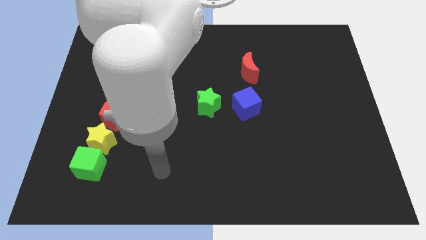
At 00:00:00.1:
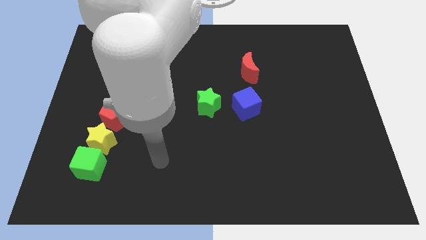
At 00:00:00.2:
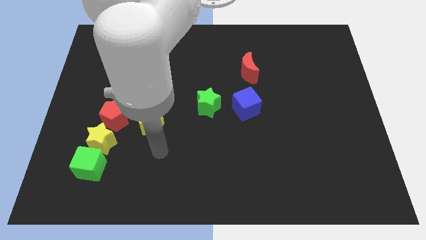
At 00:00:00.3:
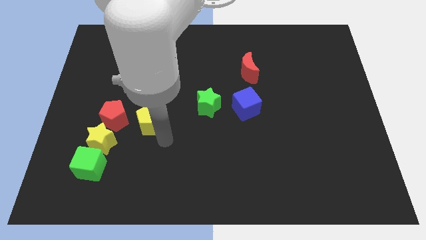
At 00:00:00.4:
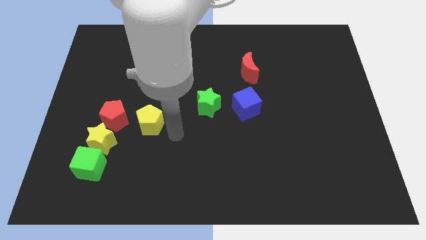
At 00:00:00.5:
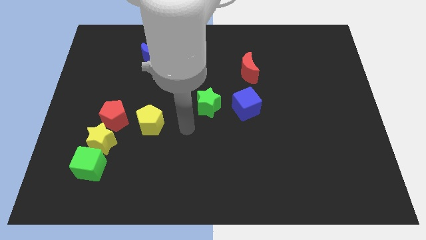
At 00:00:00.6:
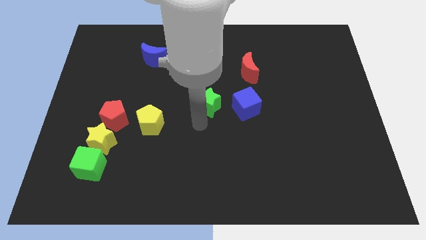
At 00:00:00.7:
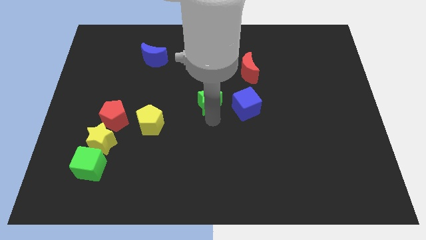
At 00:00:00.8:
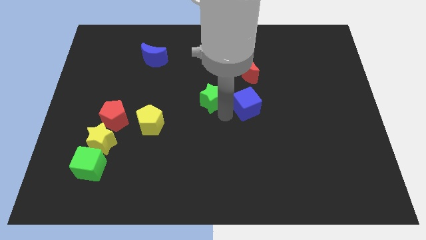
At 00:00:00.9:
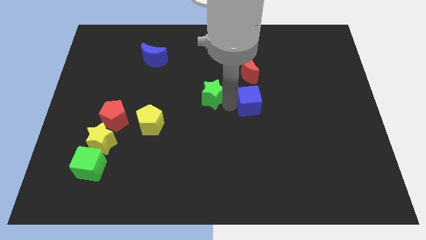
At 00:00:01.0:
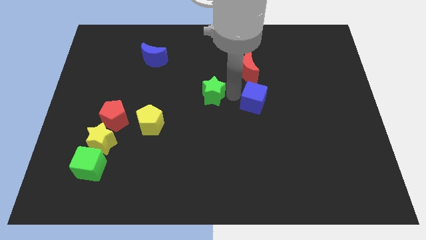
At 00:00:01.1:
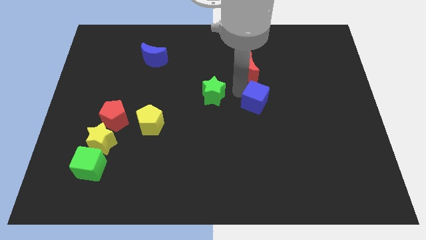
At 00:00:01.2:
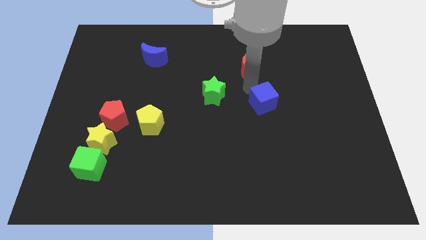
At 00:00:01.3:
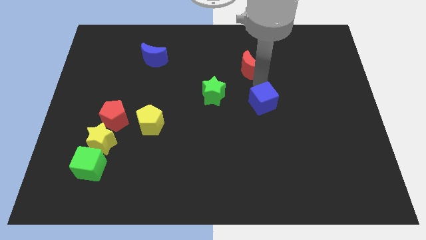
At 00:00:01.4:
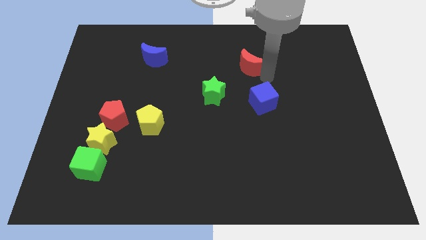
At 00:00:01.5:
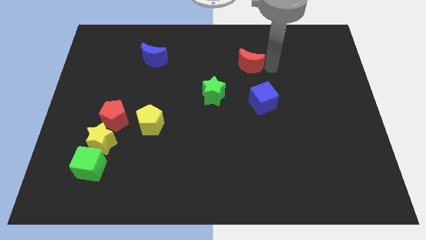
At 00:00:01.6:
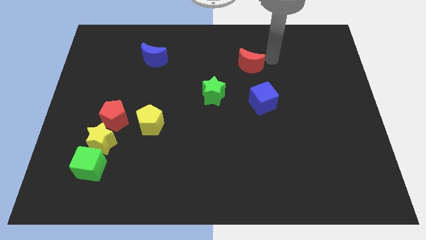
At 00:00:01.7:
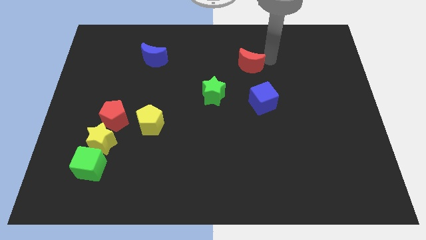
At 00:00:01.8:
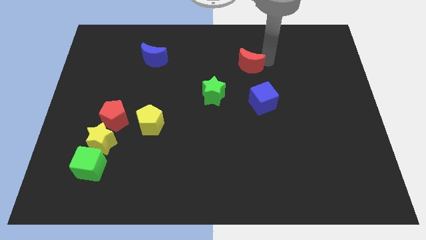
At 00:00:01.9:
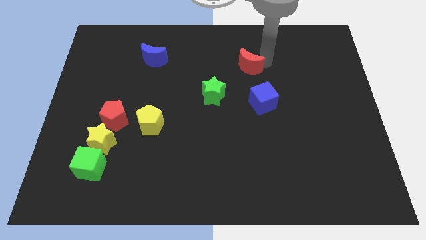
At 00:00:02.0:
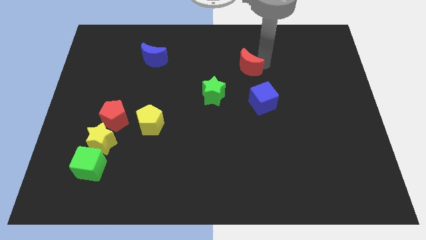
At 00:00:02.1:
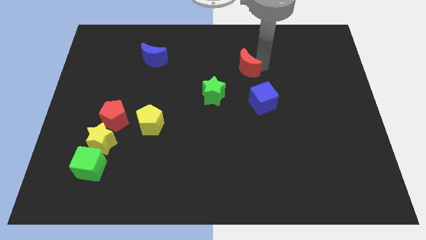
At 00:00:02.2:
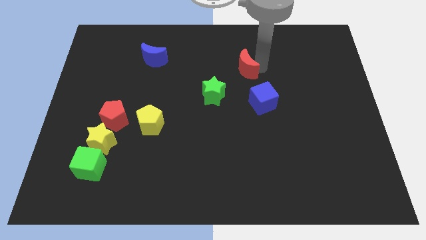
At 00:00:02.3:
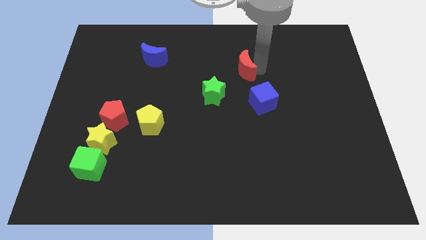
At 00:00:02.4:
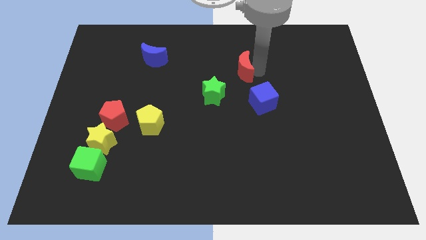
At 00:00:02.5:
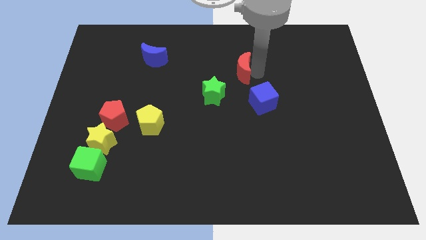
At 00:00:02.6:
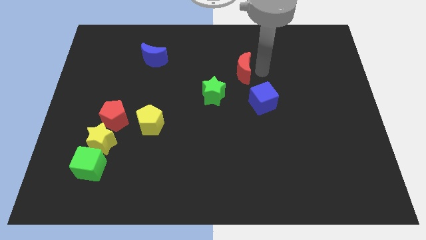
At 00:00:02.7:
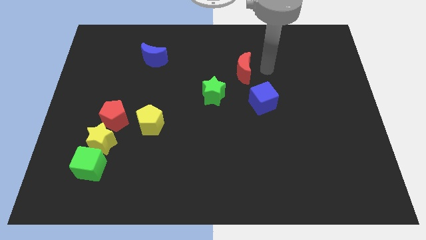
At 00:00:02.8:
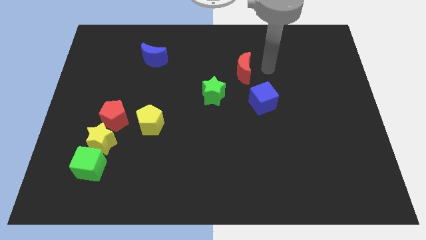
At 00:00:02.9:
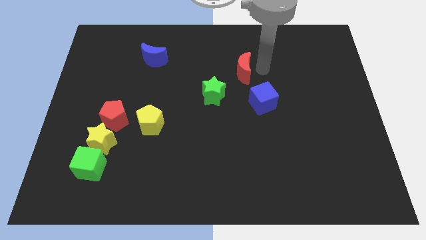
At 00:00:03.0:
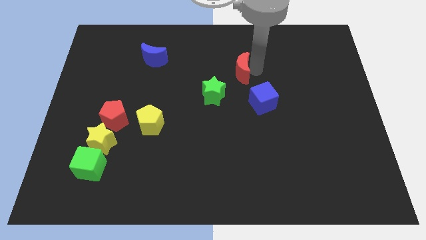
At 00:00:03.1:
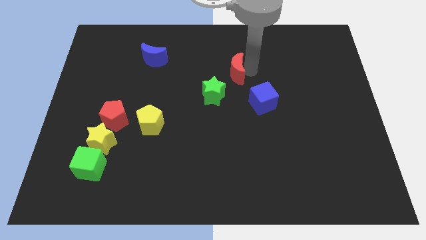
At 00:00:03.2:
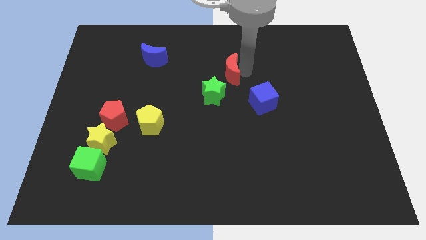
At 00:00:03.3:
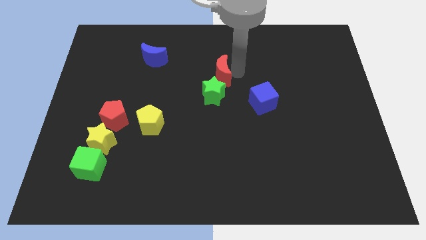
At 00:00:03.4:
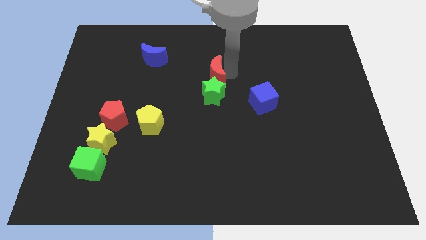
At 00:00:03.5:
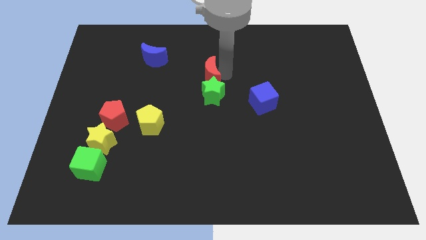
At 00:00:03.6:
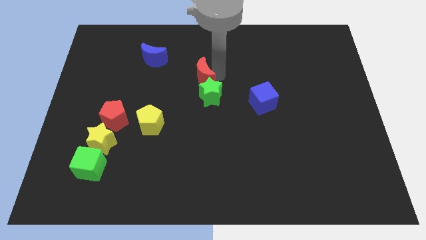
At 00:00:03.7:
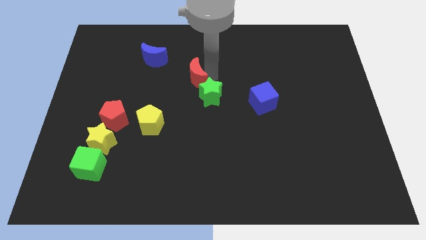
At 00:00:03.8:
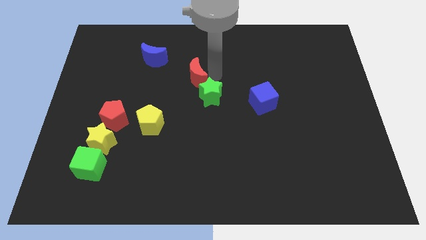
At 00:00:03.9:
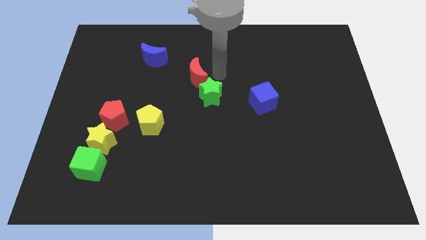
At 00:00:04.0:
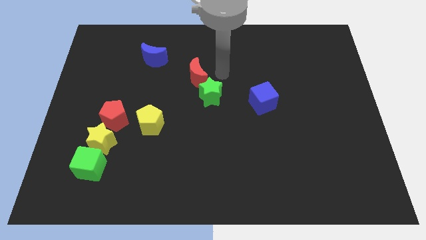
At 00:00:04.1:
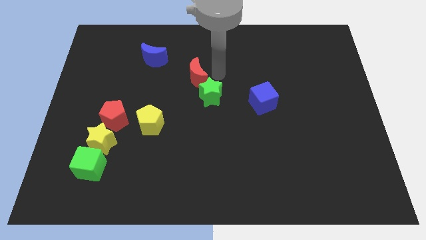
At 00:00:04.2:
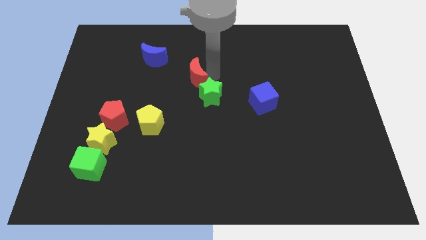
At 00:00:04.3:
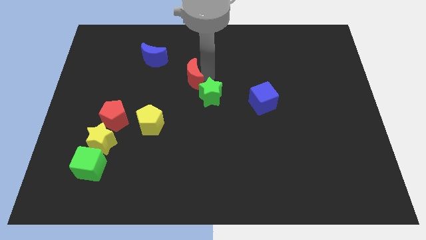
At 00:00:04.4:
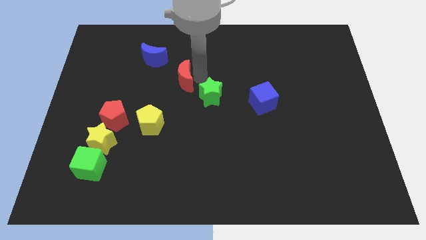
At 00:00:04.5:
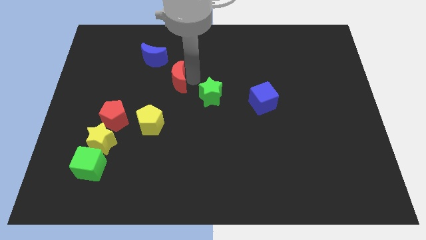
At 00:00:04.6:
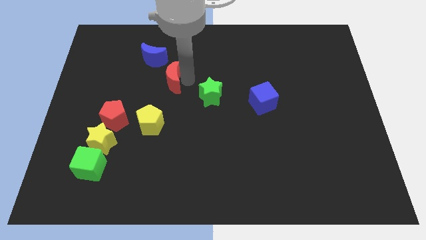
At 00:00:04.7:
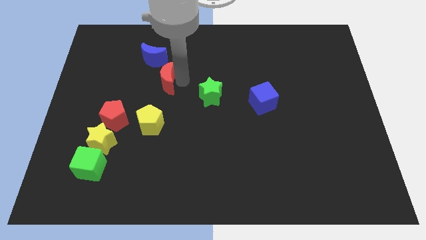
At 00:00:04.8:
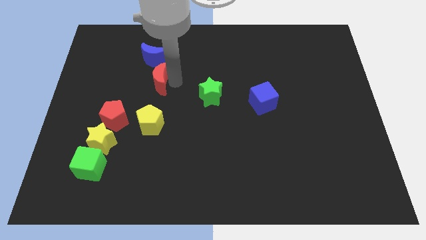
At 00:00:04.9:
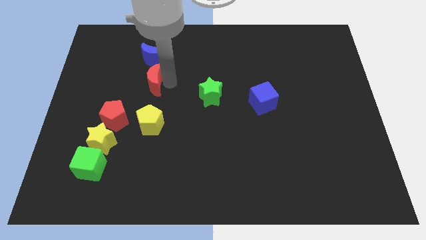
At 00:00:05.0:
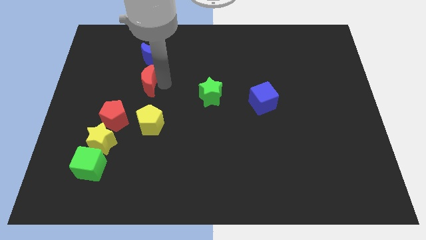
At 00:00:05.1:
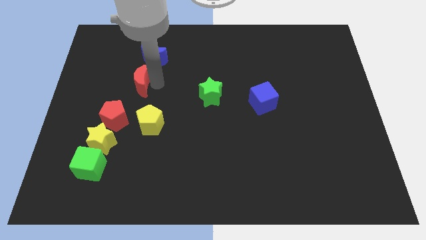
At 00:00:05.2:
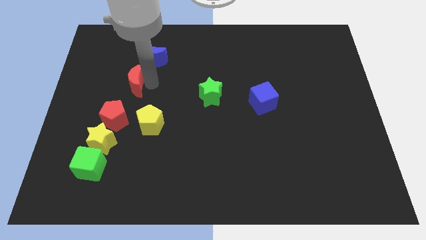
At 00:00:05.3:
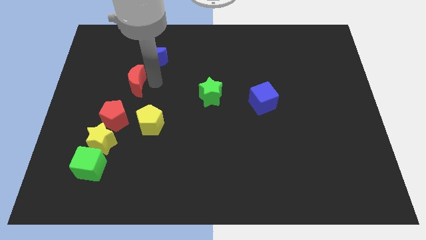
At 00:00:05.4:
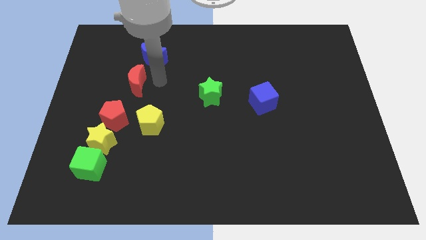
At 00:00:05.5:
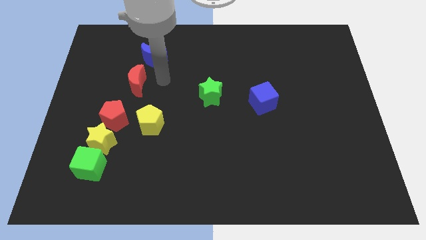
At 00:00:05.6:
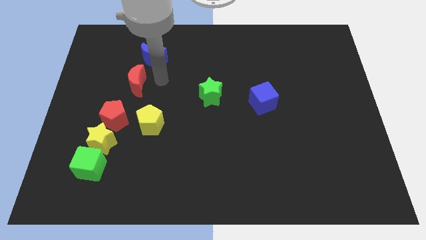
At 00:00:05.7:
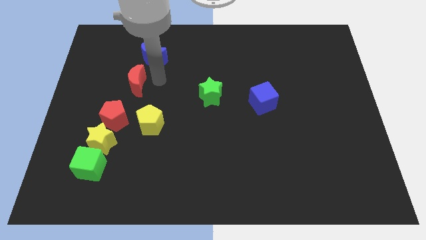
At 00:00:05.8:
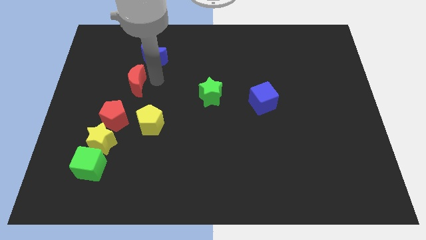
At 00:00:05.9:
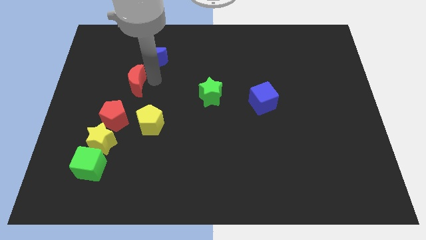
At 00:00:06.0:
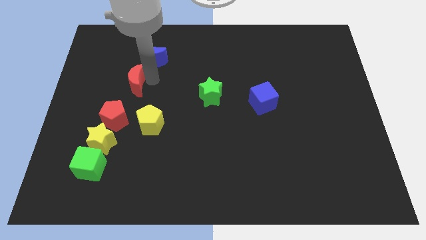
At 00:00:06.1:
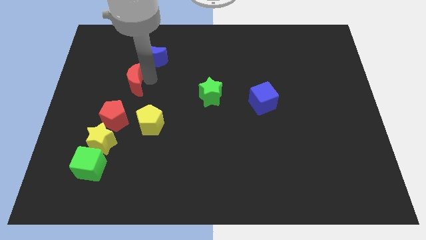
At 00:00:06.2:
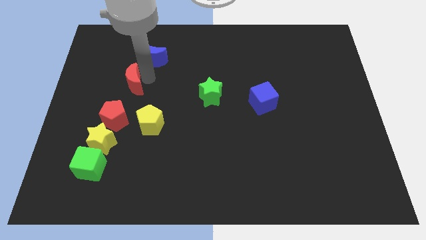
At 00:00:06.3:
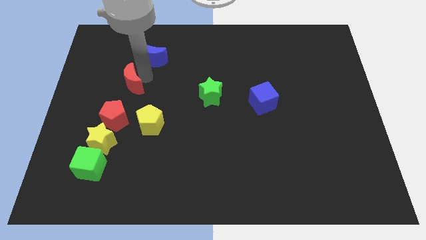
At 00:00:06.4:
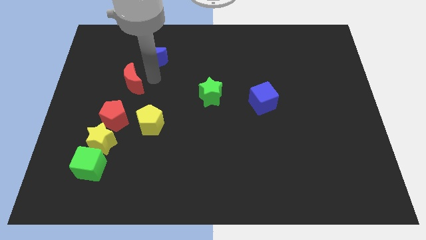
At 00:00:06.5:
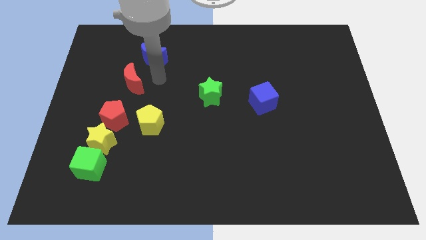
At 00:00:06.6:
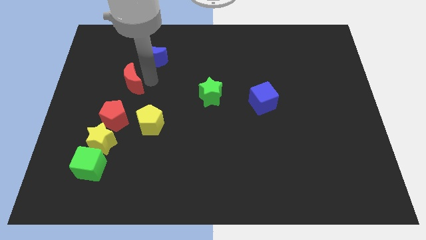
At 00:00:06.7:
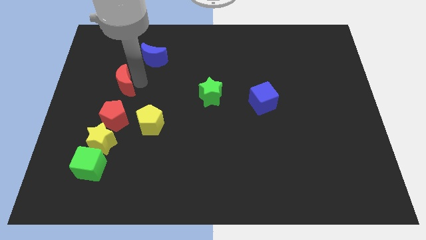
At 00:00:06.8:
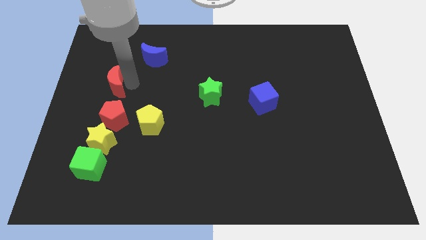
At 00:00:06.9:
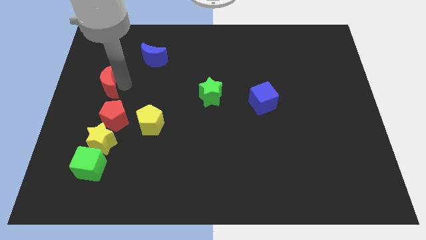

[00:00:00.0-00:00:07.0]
push the red moon to the center left
